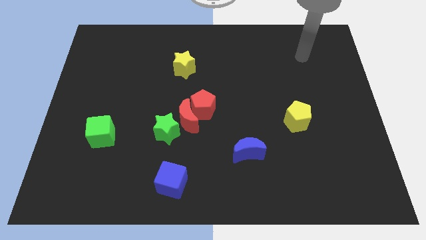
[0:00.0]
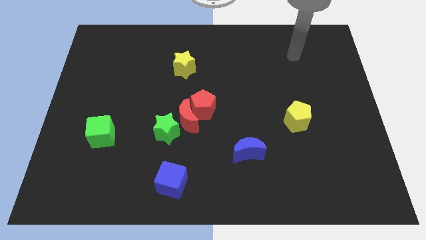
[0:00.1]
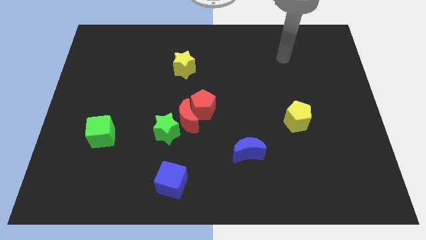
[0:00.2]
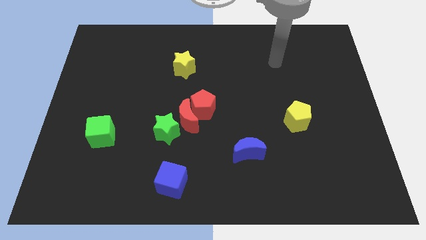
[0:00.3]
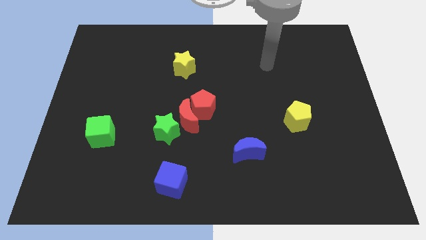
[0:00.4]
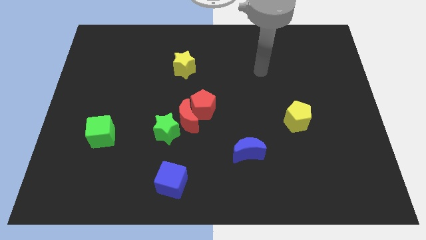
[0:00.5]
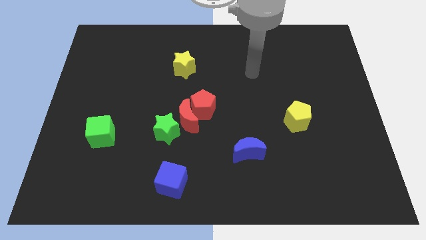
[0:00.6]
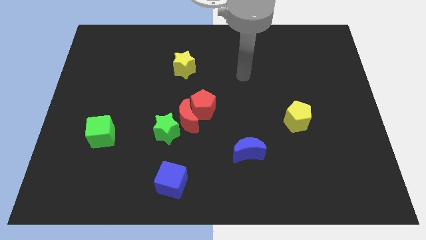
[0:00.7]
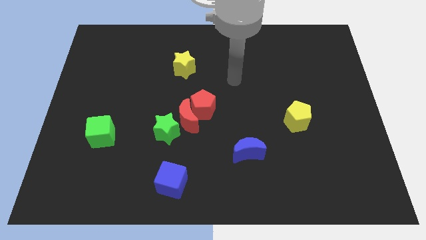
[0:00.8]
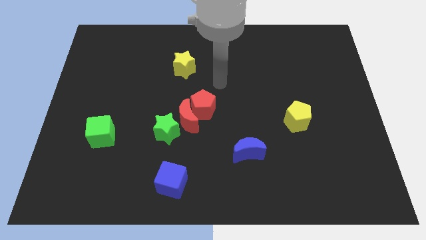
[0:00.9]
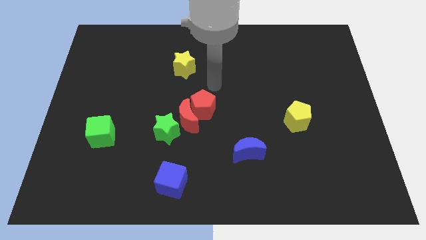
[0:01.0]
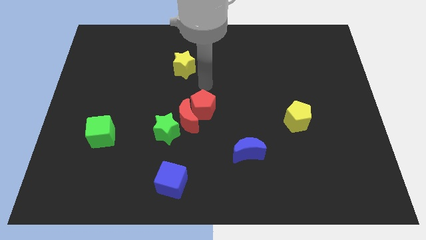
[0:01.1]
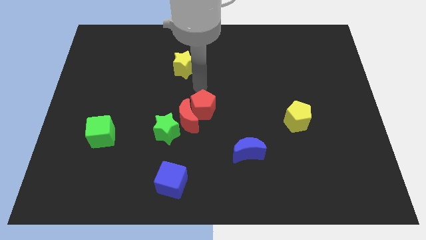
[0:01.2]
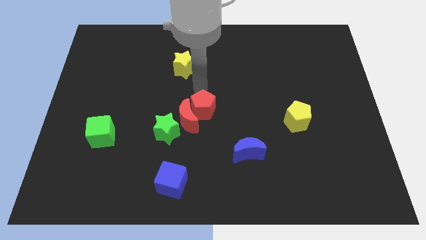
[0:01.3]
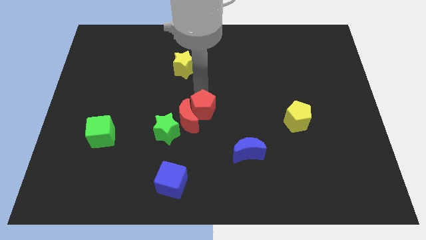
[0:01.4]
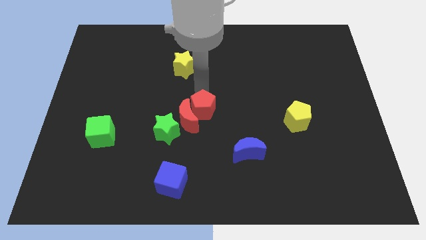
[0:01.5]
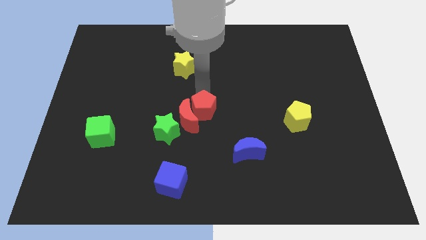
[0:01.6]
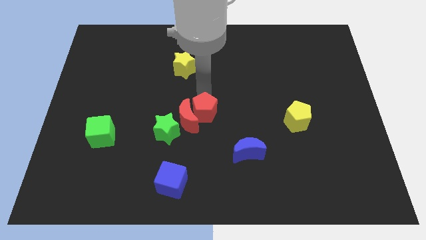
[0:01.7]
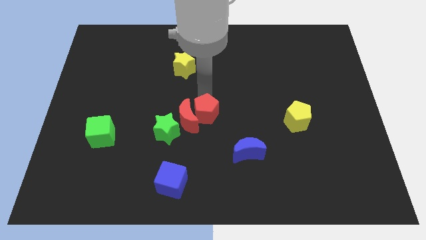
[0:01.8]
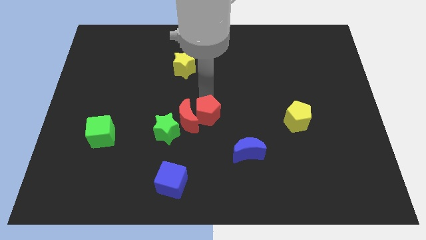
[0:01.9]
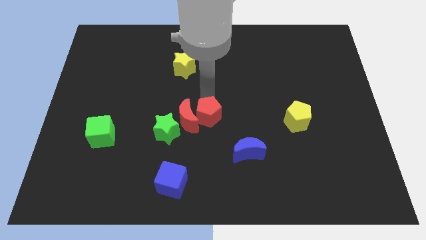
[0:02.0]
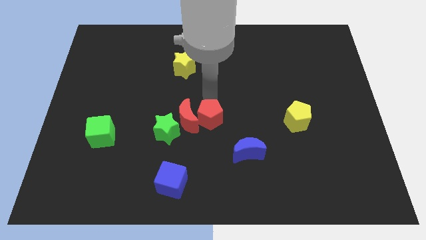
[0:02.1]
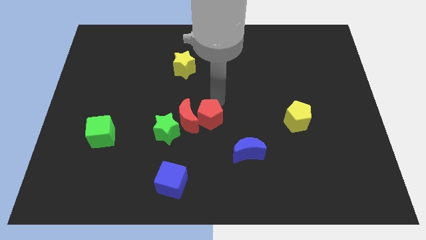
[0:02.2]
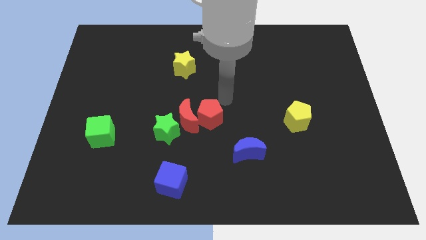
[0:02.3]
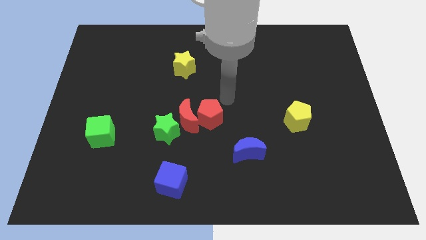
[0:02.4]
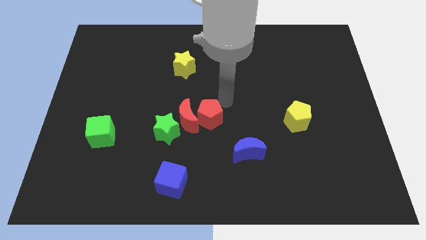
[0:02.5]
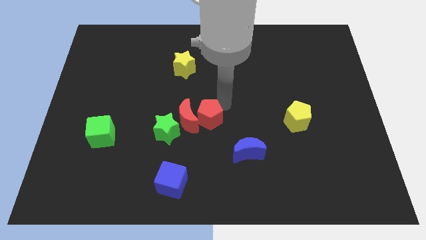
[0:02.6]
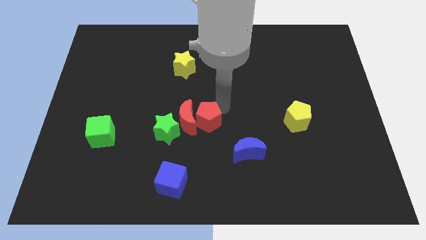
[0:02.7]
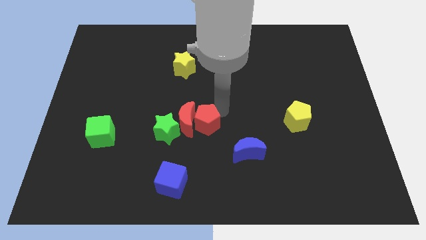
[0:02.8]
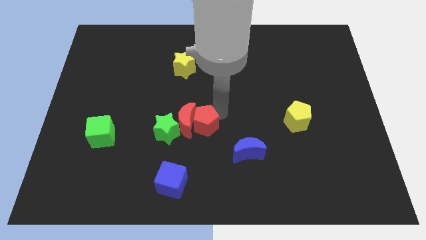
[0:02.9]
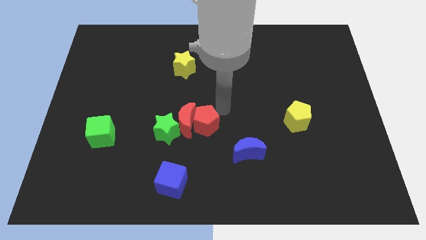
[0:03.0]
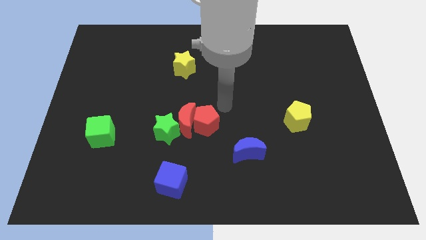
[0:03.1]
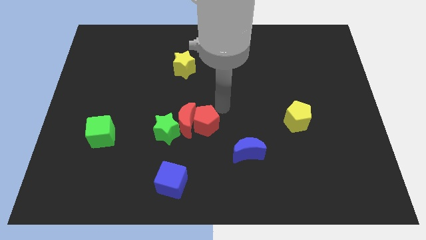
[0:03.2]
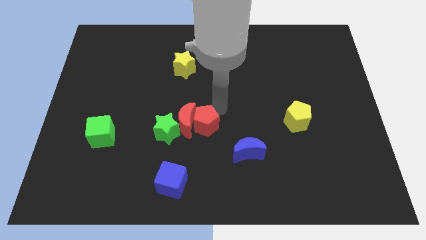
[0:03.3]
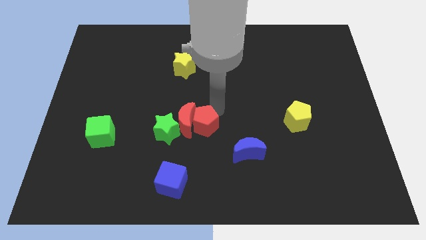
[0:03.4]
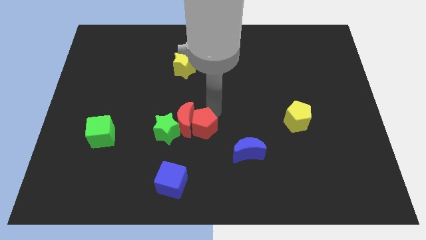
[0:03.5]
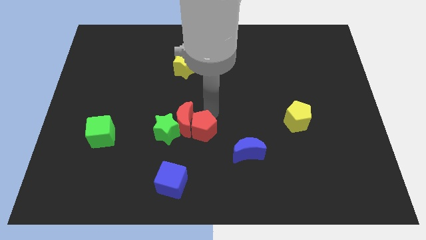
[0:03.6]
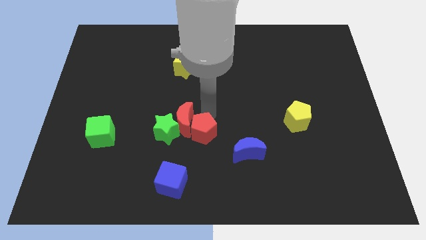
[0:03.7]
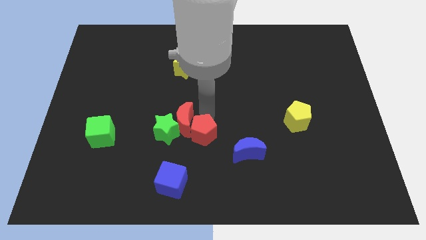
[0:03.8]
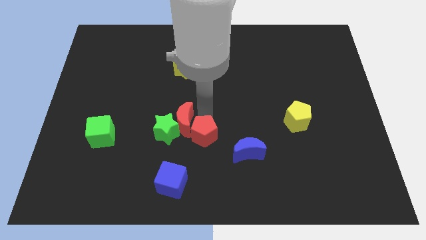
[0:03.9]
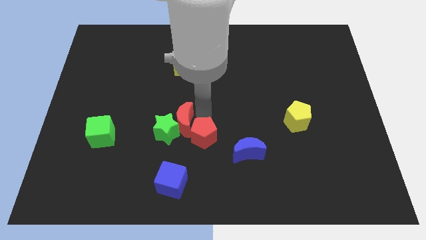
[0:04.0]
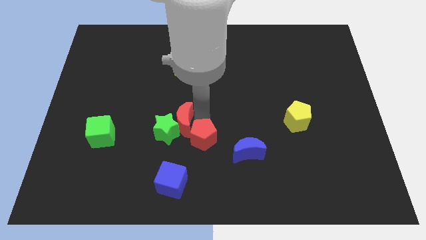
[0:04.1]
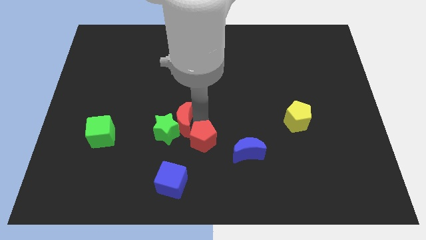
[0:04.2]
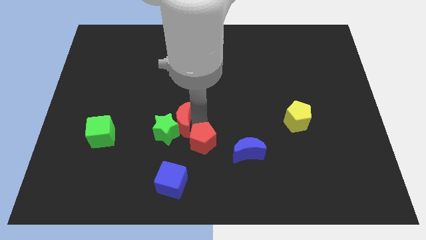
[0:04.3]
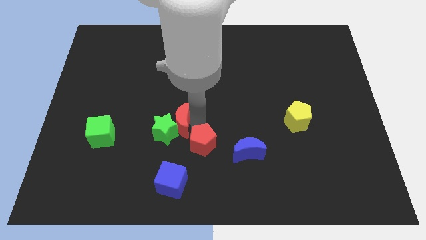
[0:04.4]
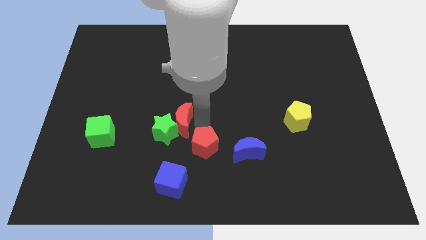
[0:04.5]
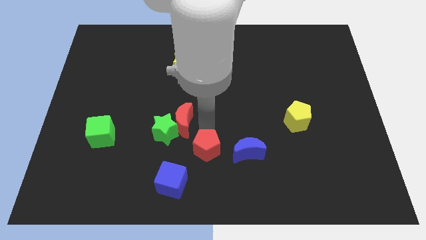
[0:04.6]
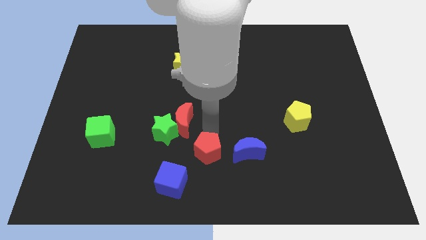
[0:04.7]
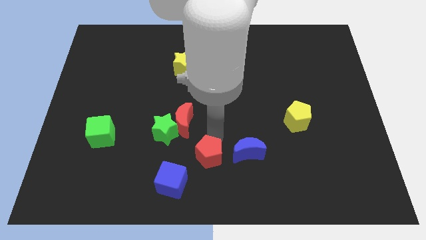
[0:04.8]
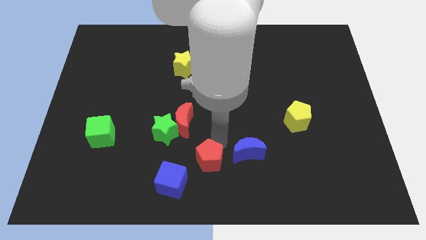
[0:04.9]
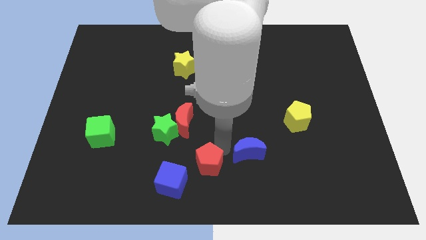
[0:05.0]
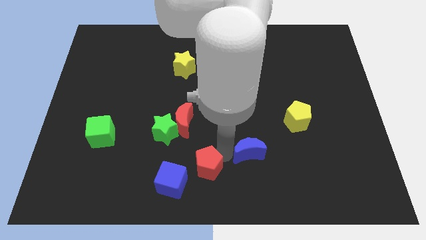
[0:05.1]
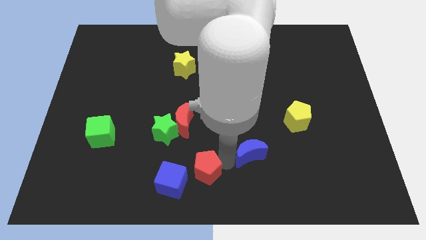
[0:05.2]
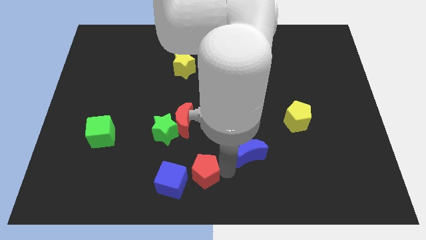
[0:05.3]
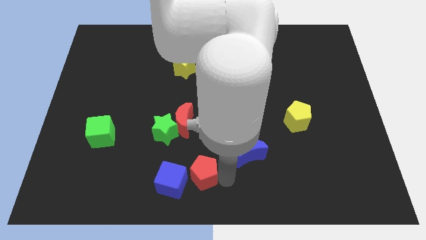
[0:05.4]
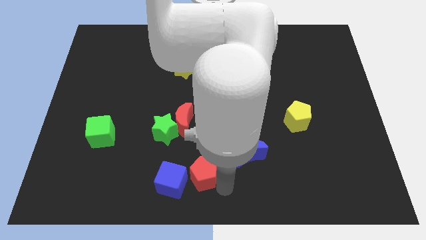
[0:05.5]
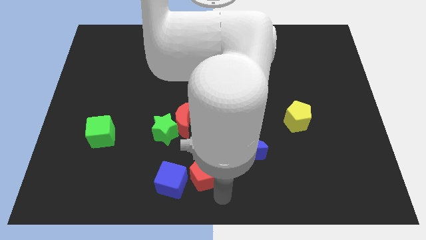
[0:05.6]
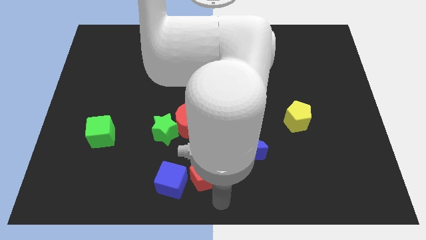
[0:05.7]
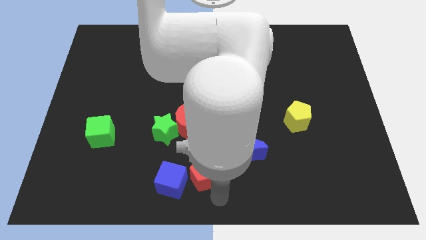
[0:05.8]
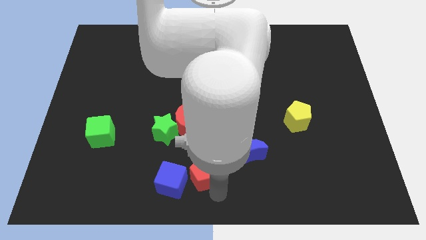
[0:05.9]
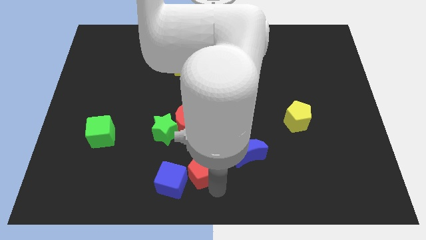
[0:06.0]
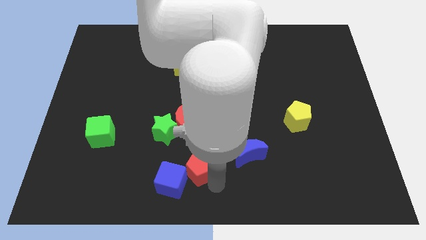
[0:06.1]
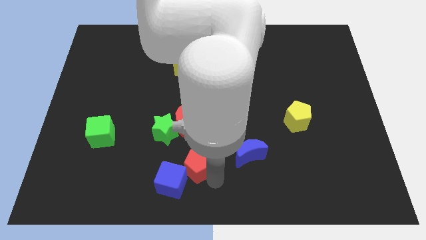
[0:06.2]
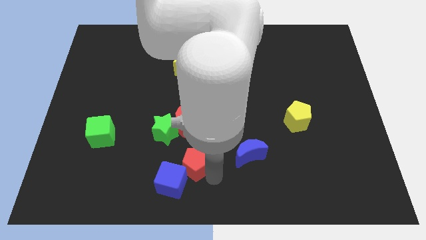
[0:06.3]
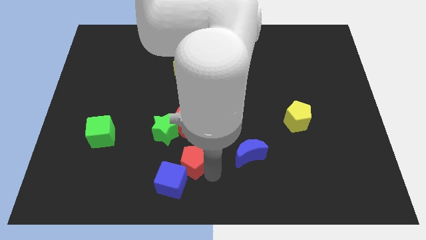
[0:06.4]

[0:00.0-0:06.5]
move the red pentagon diagonally downwards and to the left somewhat

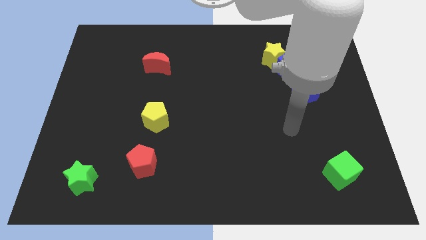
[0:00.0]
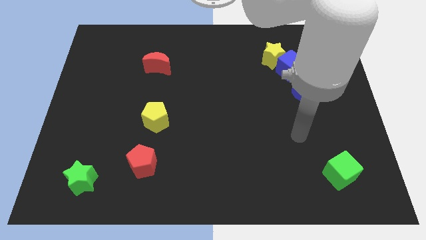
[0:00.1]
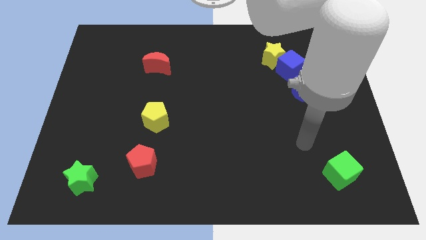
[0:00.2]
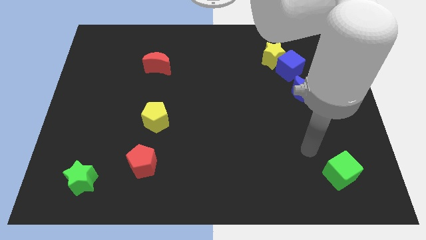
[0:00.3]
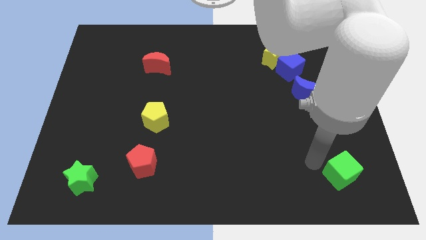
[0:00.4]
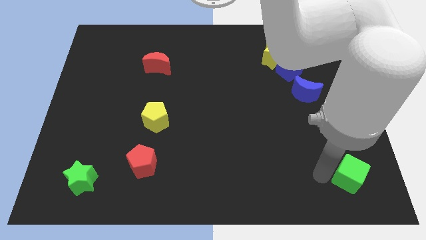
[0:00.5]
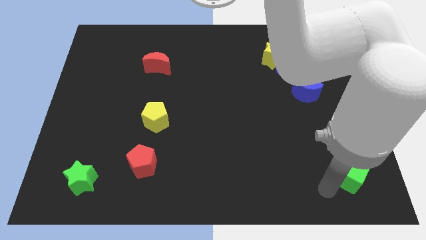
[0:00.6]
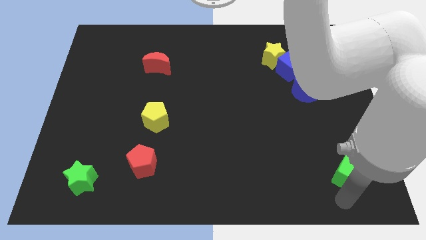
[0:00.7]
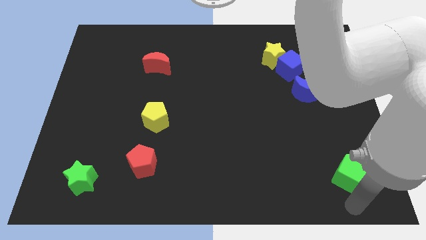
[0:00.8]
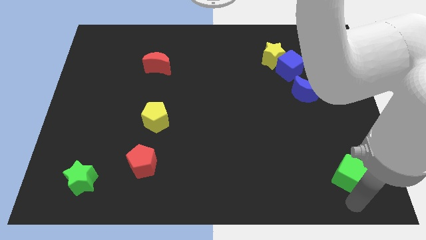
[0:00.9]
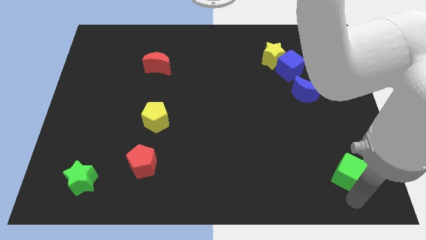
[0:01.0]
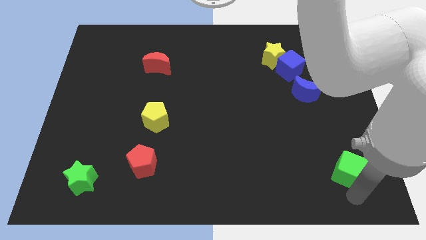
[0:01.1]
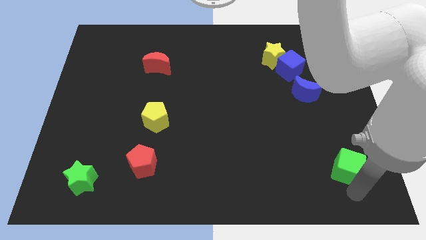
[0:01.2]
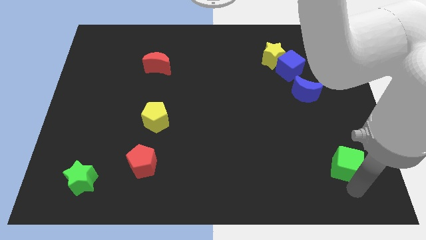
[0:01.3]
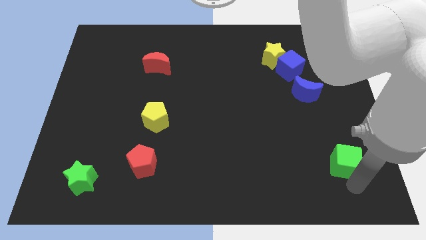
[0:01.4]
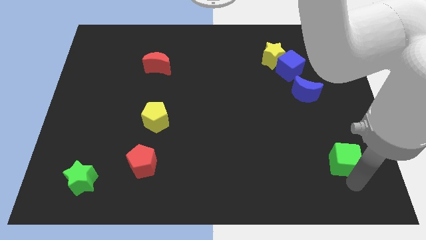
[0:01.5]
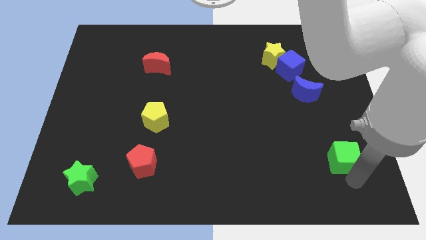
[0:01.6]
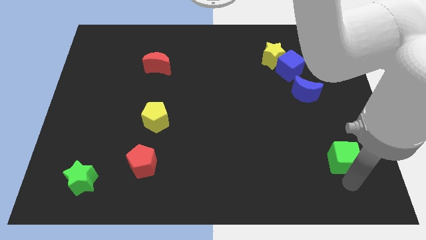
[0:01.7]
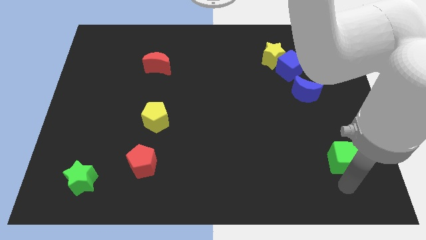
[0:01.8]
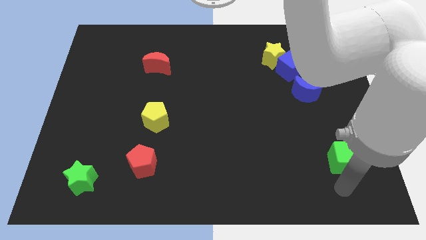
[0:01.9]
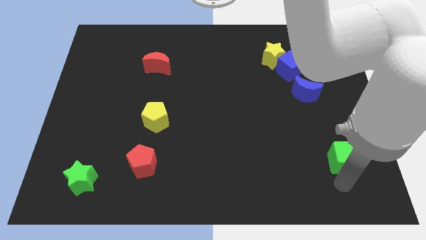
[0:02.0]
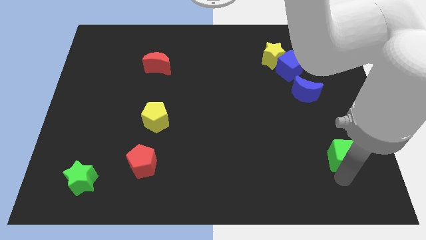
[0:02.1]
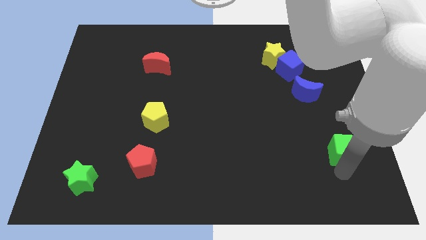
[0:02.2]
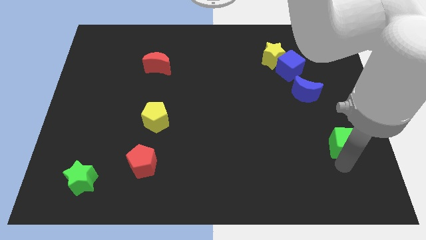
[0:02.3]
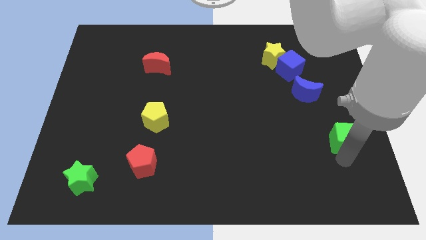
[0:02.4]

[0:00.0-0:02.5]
slide the green cube a bit up
